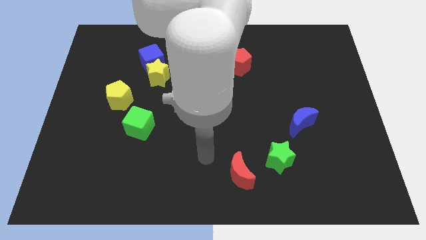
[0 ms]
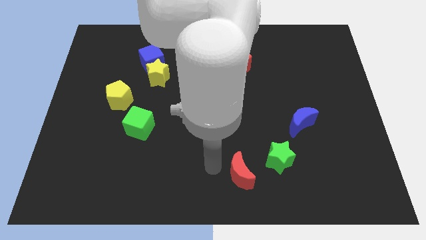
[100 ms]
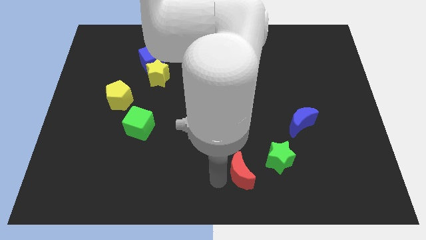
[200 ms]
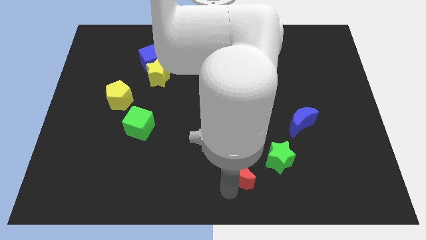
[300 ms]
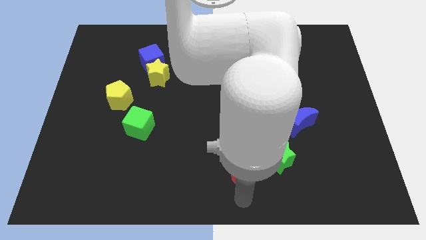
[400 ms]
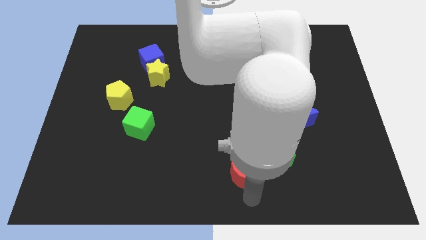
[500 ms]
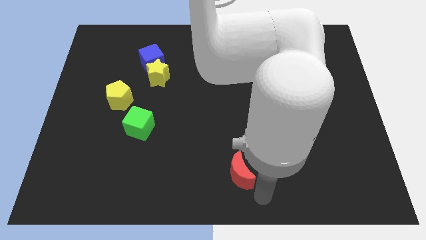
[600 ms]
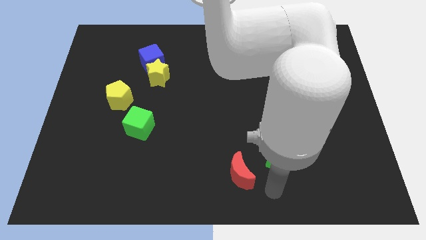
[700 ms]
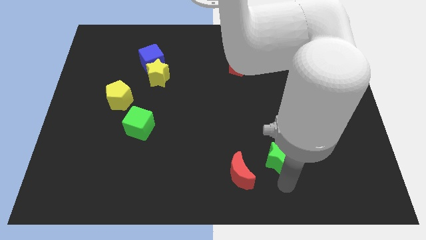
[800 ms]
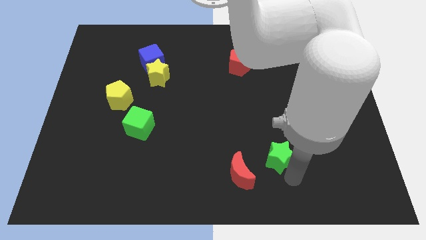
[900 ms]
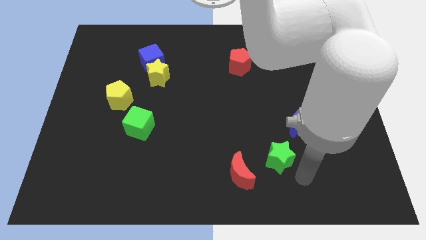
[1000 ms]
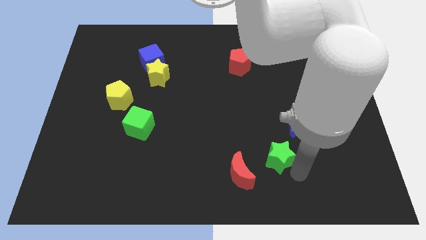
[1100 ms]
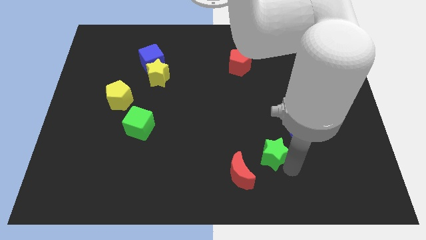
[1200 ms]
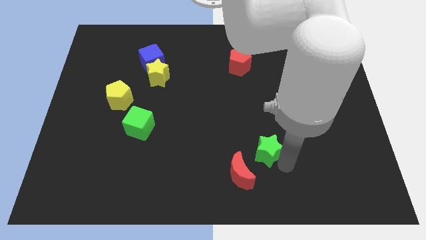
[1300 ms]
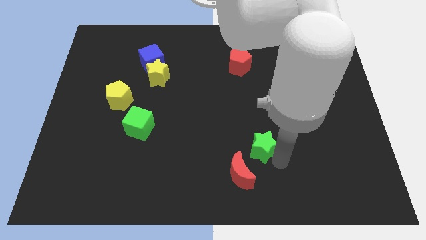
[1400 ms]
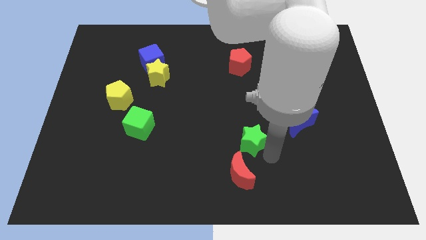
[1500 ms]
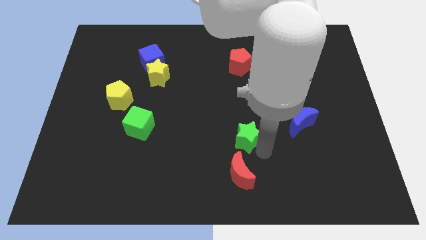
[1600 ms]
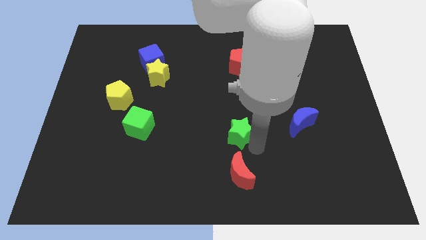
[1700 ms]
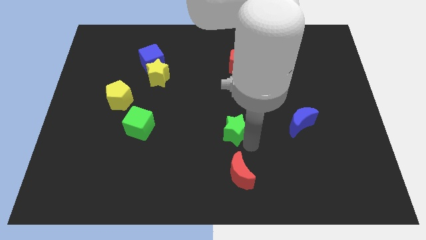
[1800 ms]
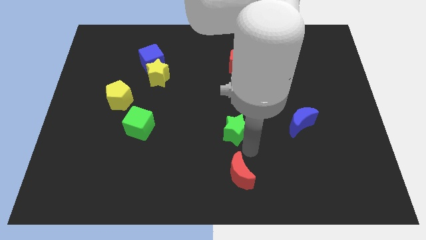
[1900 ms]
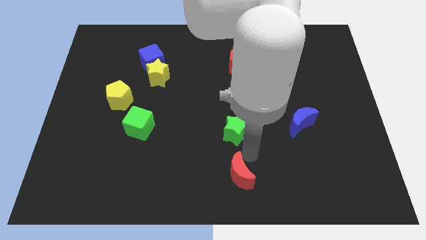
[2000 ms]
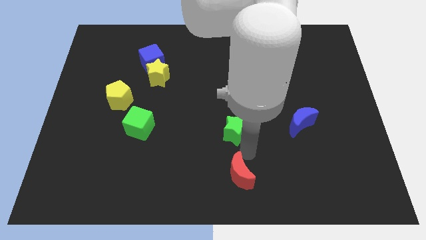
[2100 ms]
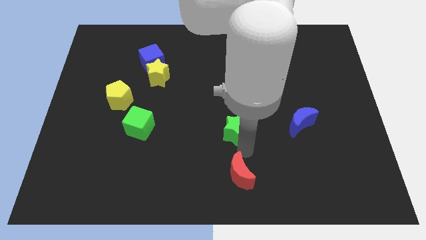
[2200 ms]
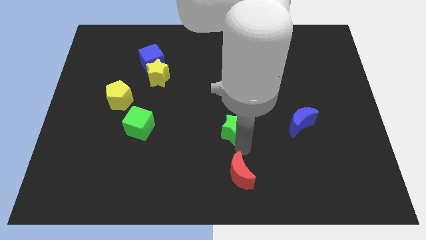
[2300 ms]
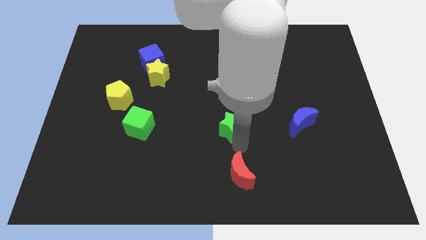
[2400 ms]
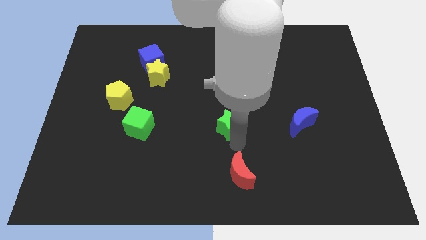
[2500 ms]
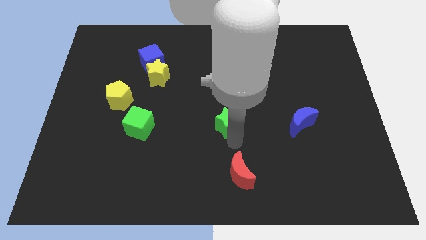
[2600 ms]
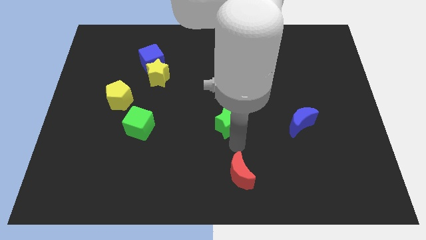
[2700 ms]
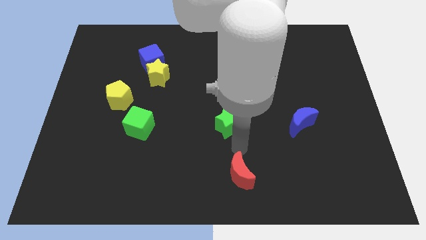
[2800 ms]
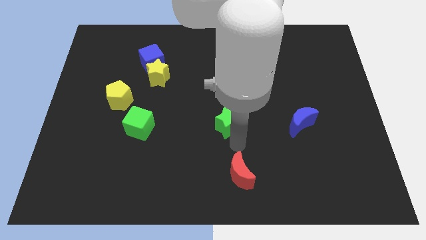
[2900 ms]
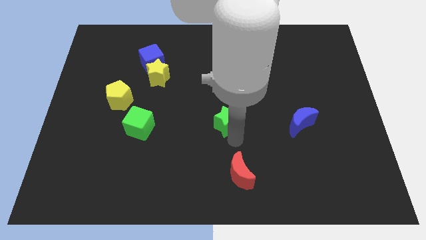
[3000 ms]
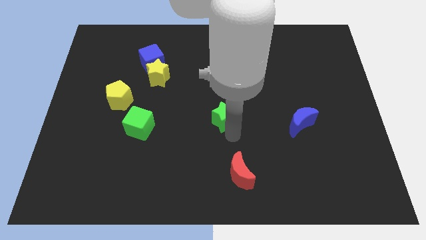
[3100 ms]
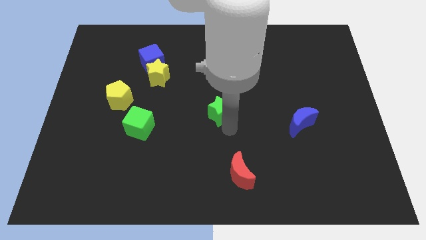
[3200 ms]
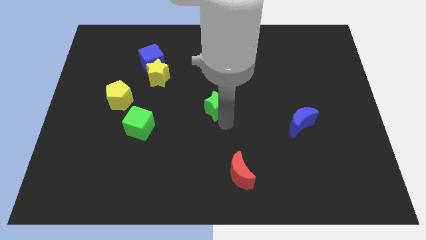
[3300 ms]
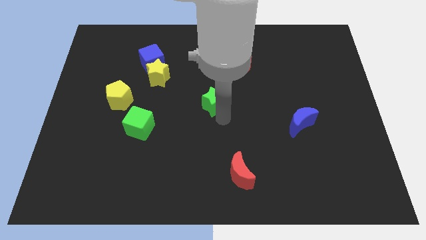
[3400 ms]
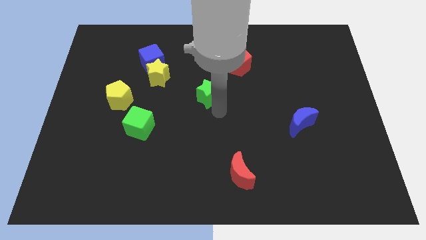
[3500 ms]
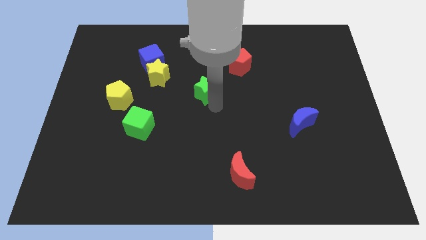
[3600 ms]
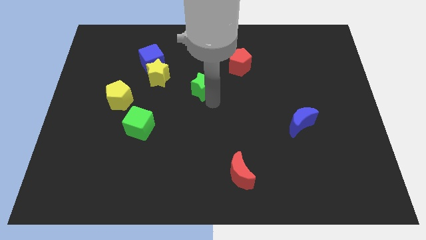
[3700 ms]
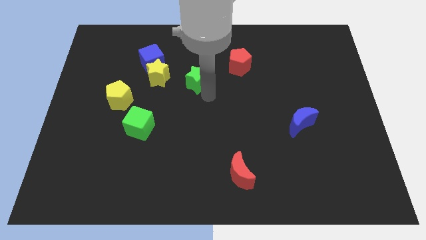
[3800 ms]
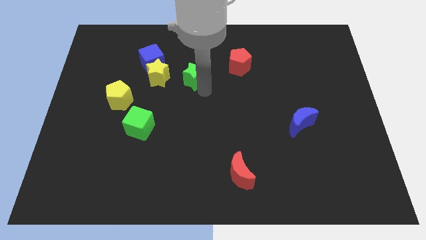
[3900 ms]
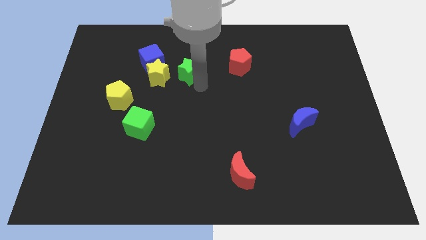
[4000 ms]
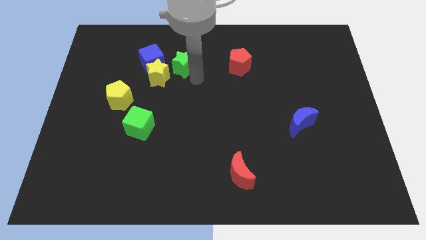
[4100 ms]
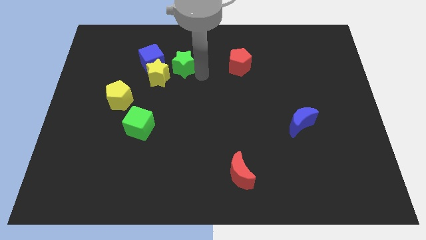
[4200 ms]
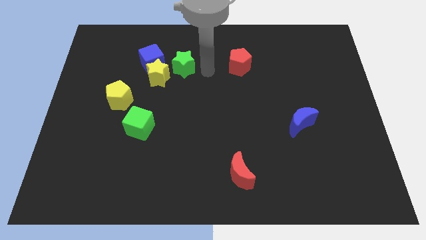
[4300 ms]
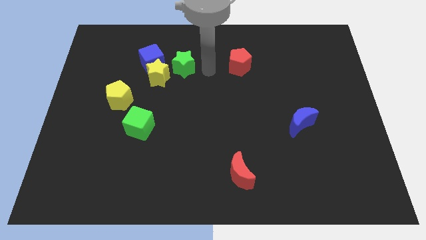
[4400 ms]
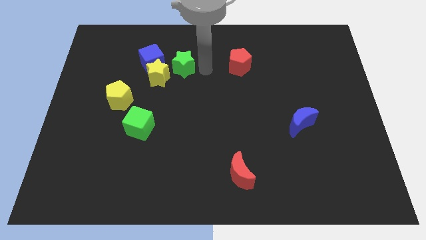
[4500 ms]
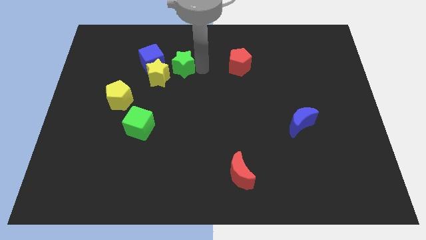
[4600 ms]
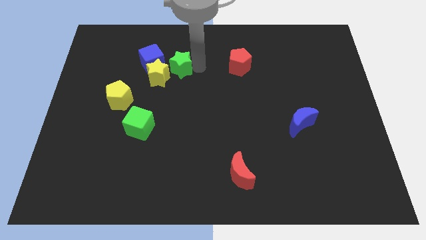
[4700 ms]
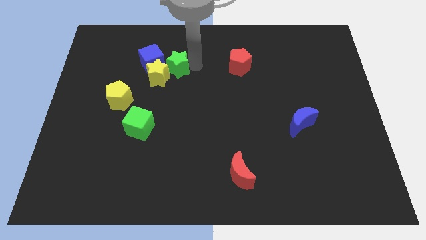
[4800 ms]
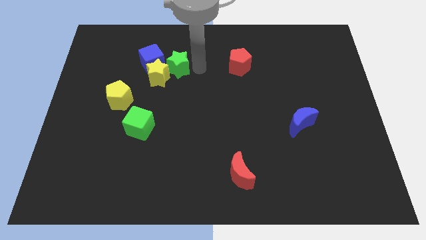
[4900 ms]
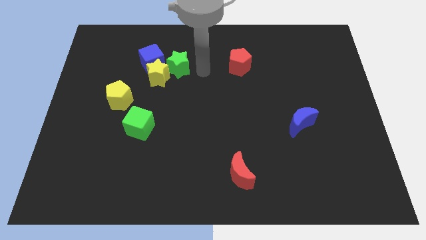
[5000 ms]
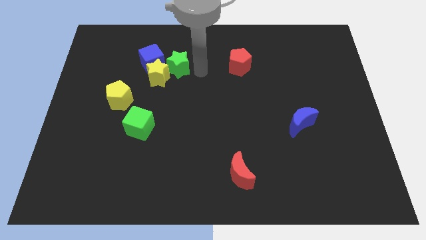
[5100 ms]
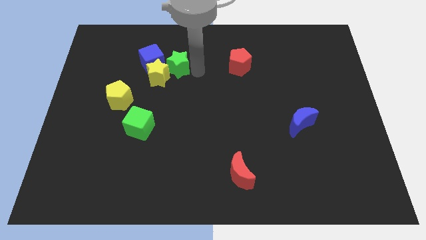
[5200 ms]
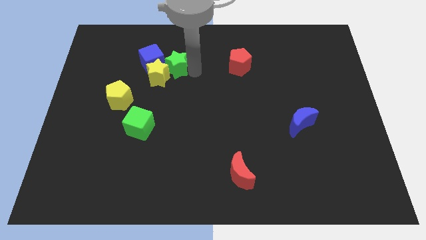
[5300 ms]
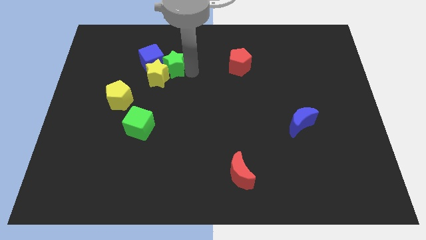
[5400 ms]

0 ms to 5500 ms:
slide the green star towards the blue cube

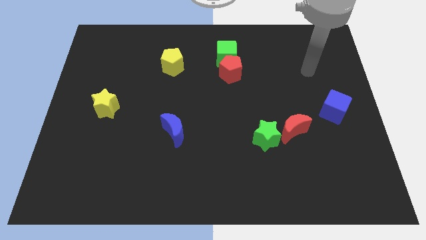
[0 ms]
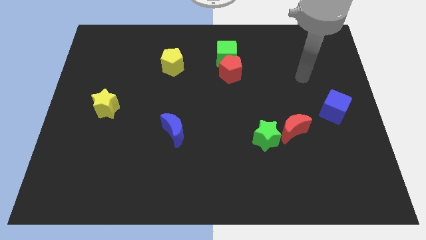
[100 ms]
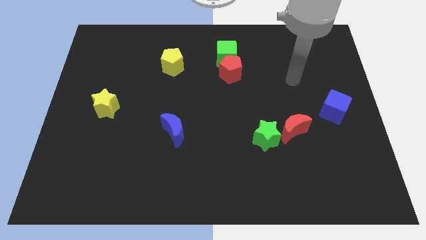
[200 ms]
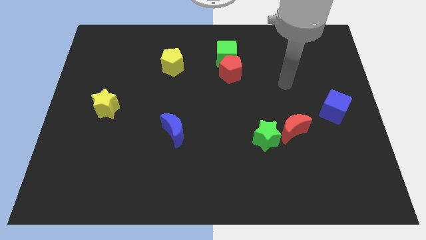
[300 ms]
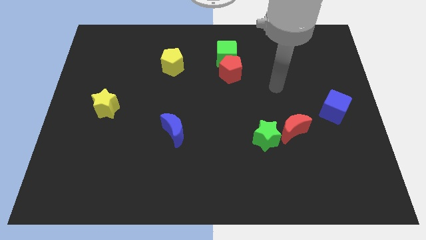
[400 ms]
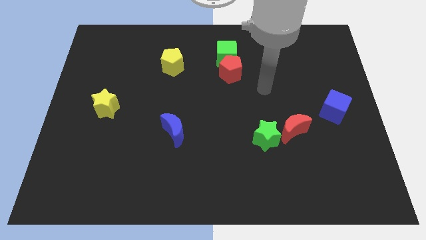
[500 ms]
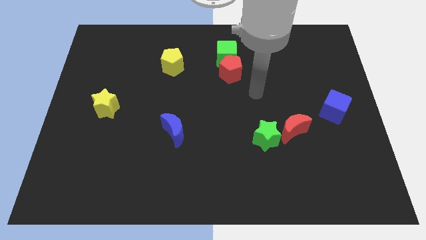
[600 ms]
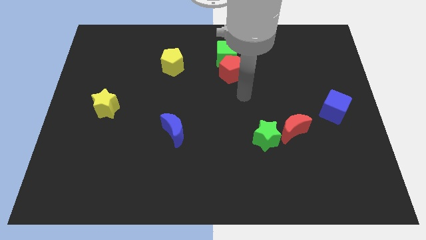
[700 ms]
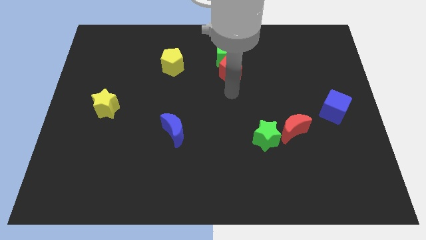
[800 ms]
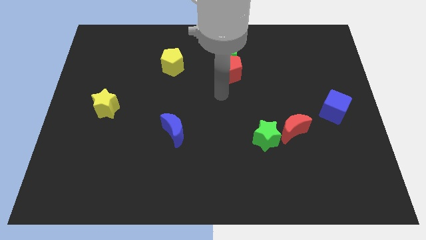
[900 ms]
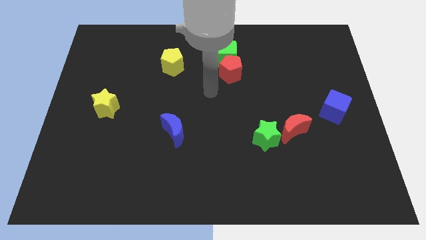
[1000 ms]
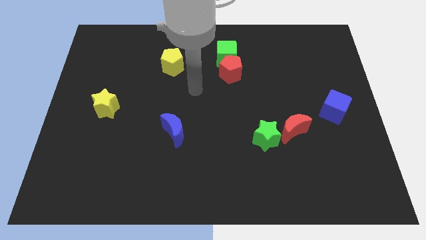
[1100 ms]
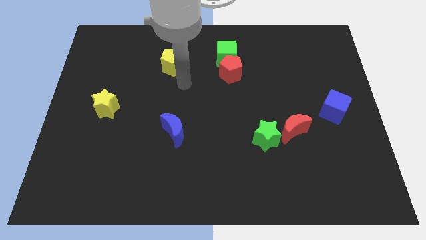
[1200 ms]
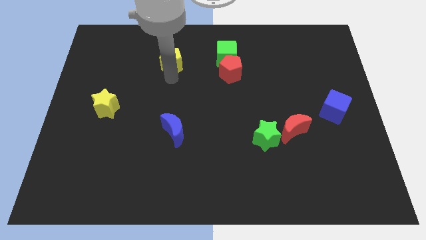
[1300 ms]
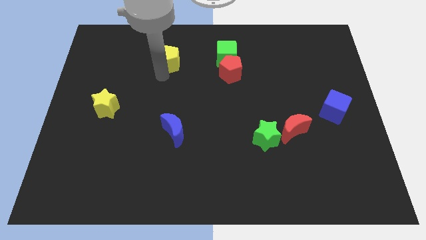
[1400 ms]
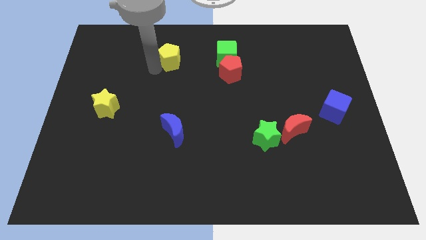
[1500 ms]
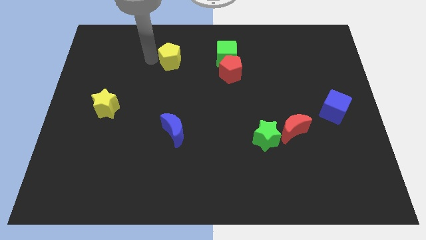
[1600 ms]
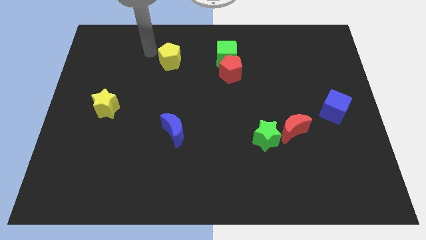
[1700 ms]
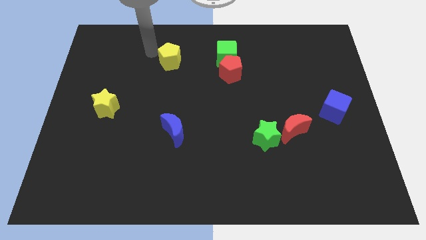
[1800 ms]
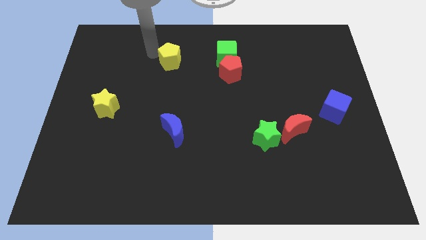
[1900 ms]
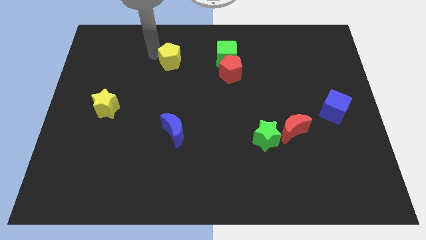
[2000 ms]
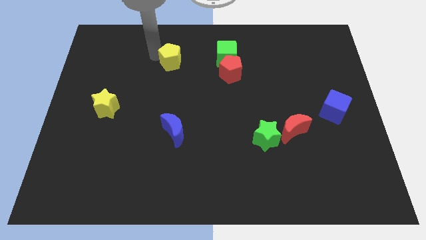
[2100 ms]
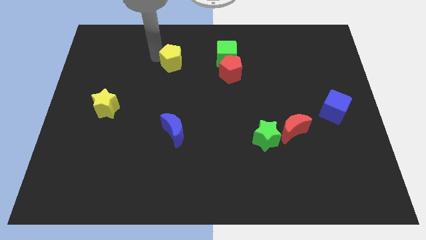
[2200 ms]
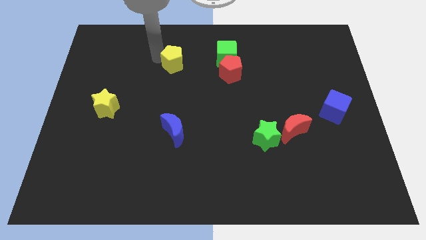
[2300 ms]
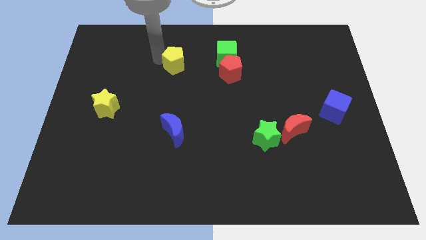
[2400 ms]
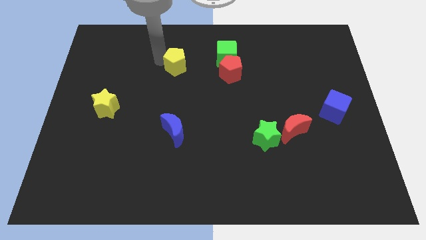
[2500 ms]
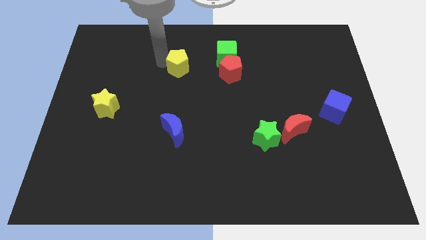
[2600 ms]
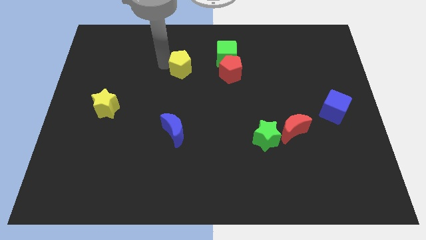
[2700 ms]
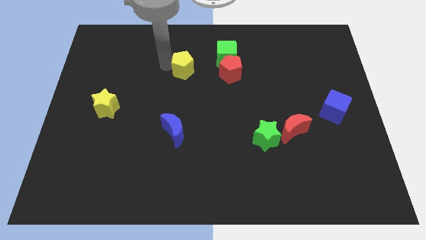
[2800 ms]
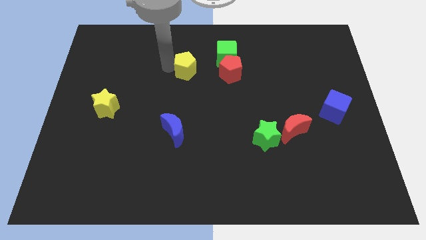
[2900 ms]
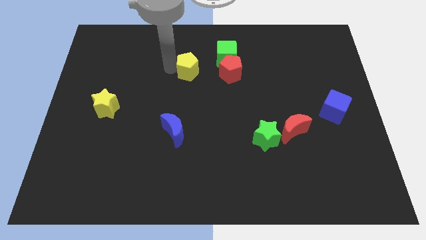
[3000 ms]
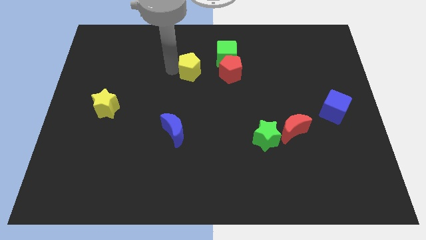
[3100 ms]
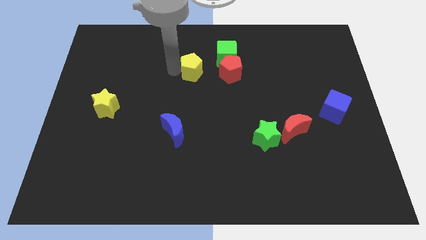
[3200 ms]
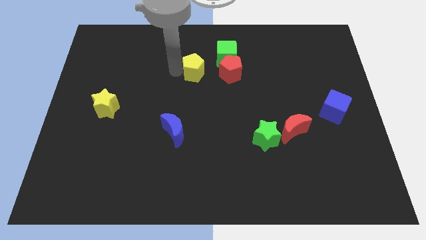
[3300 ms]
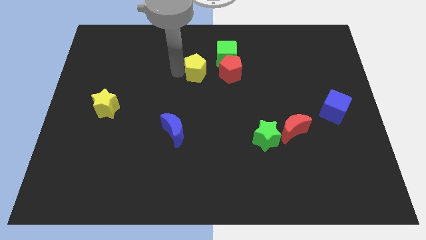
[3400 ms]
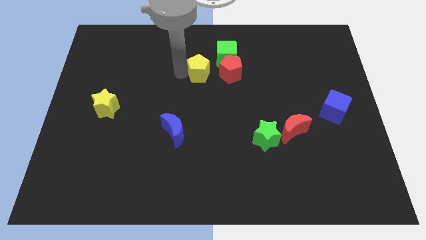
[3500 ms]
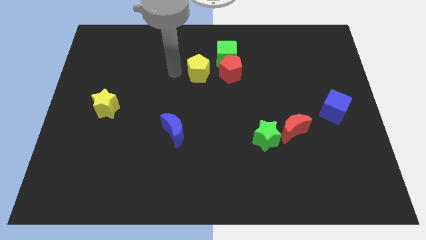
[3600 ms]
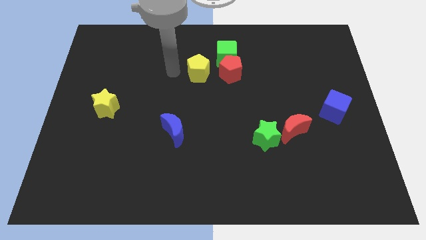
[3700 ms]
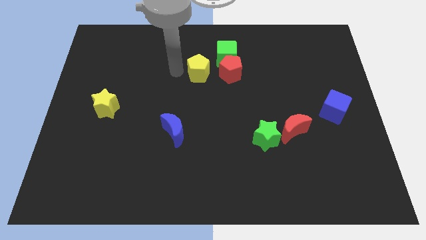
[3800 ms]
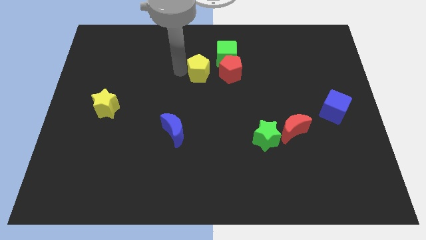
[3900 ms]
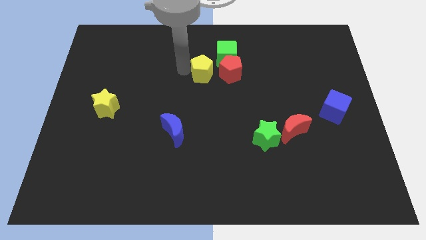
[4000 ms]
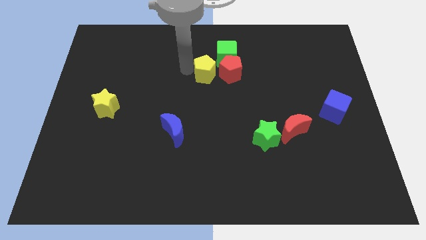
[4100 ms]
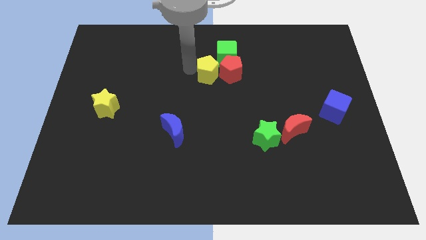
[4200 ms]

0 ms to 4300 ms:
put the yellow pentagon next to the red pentagon
